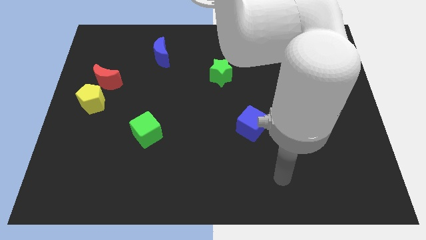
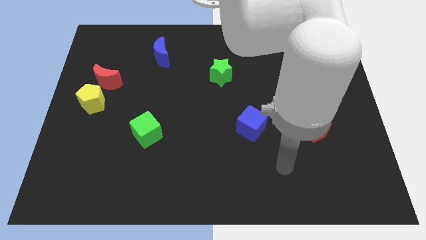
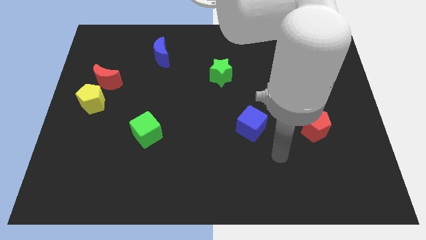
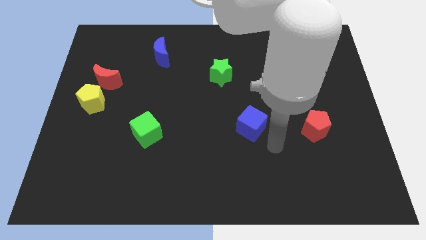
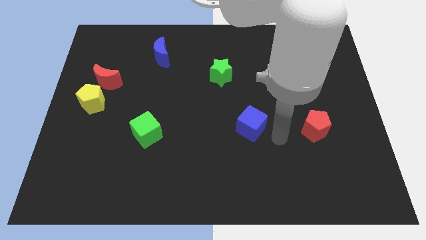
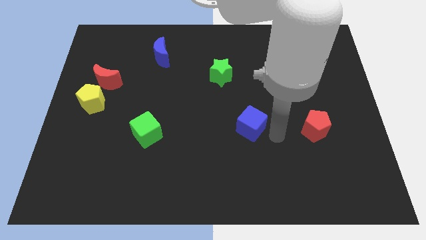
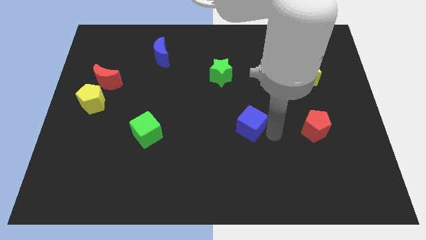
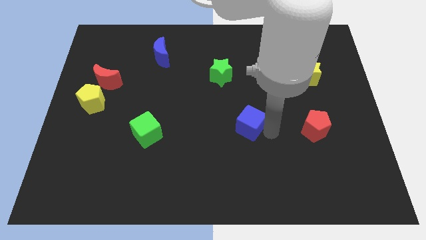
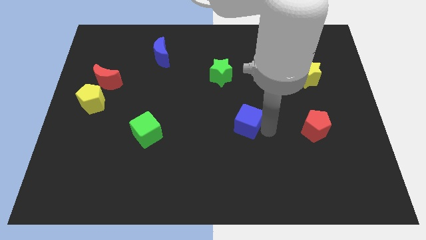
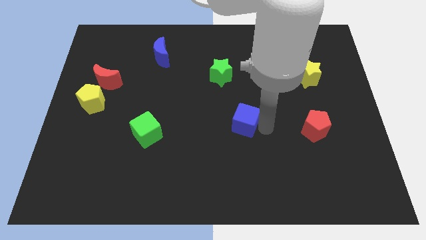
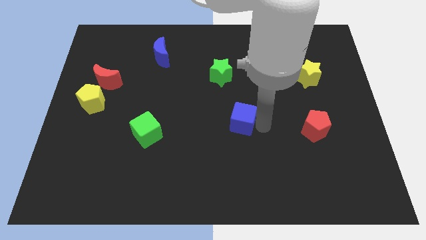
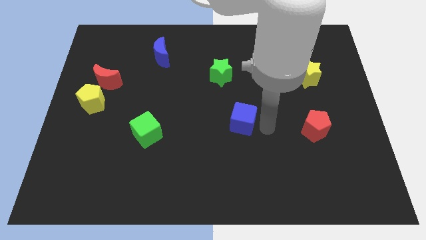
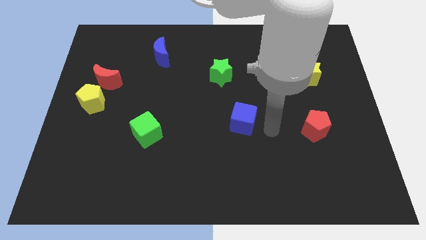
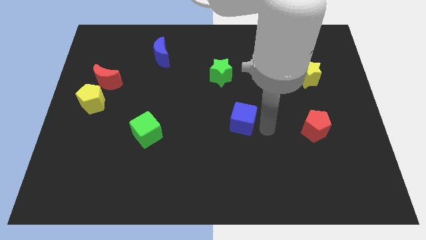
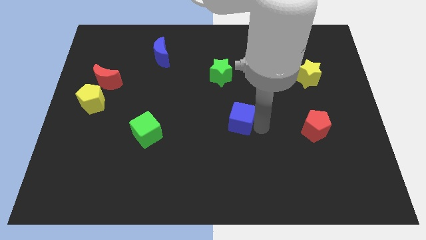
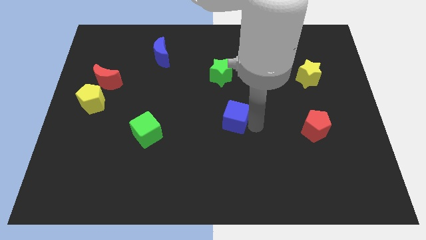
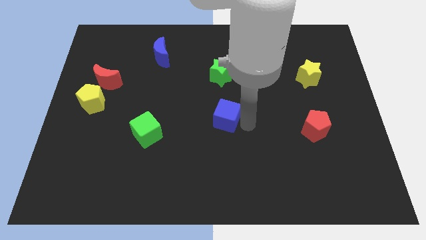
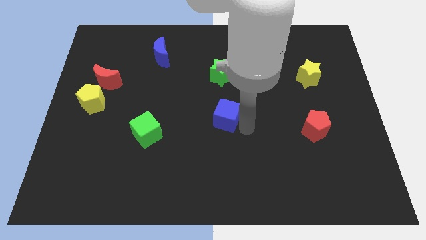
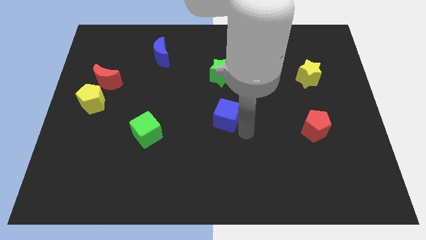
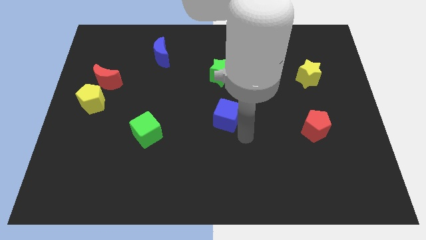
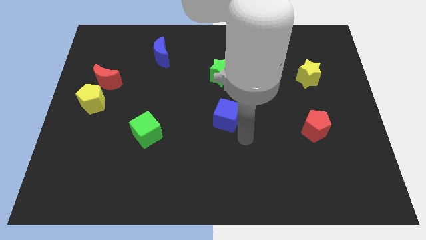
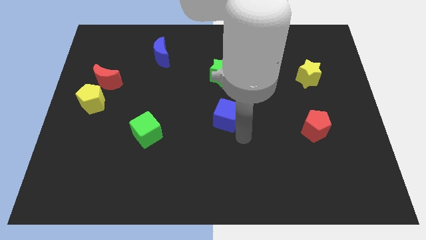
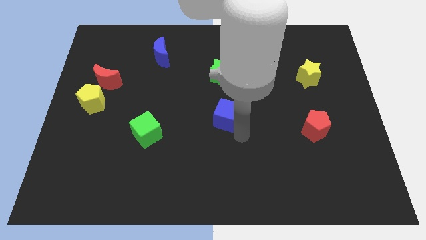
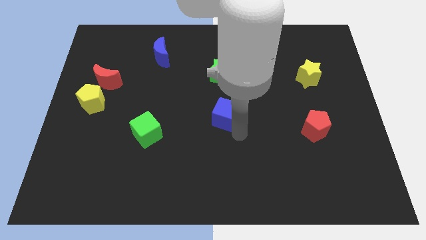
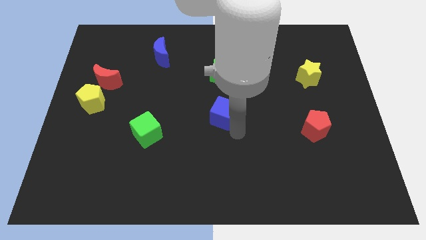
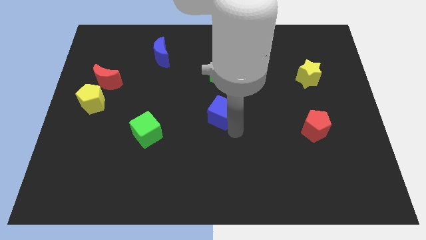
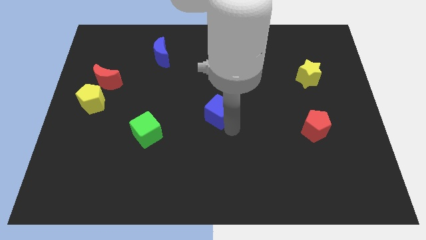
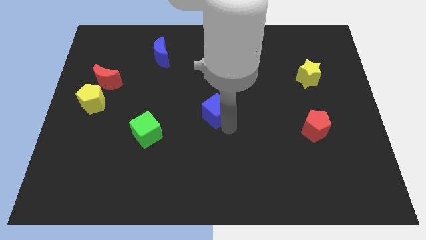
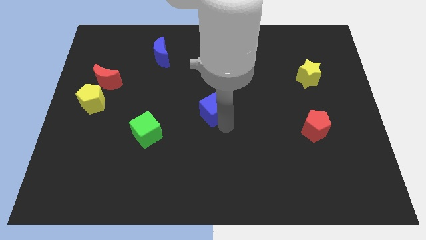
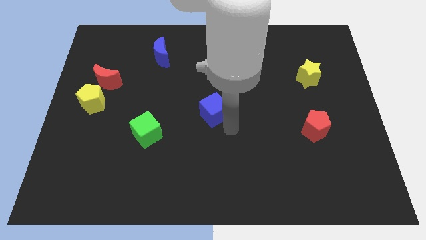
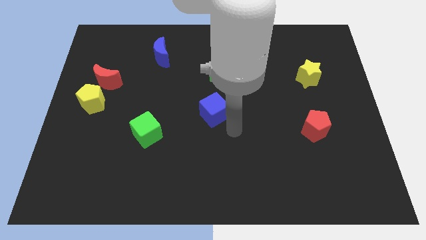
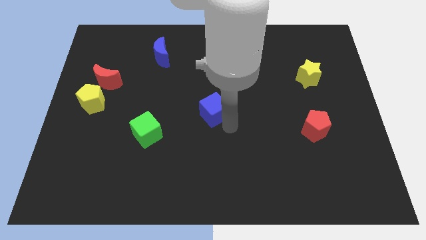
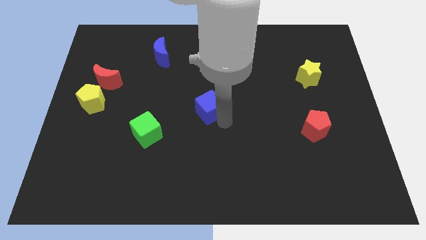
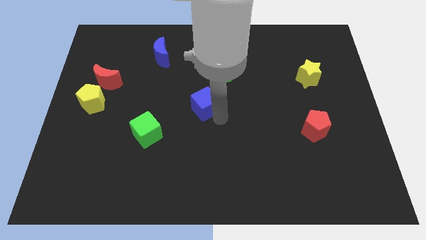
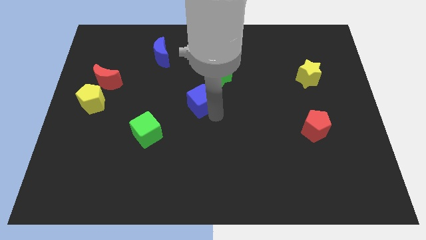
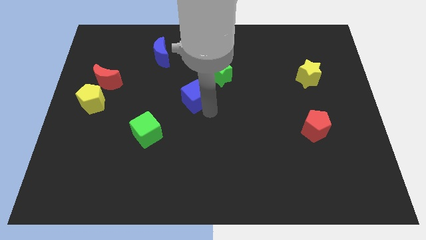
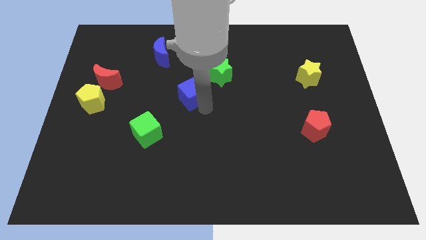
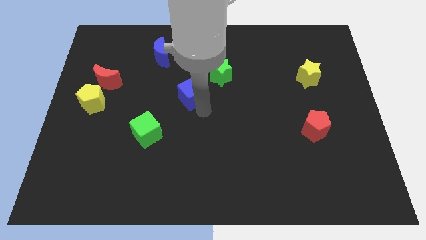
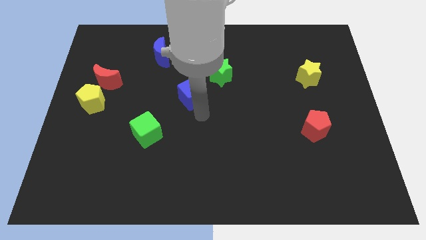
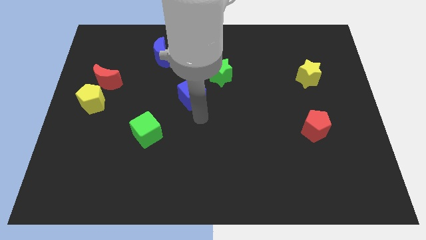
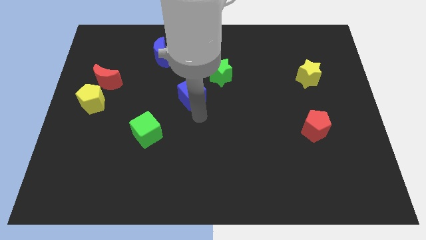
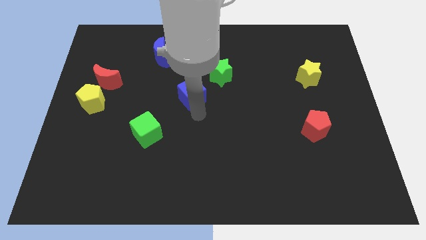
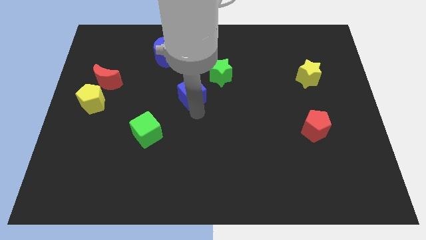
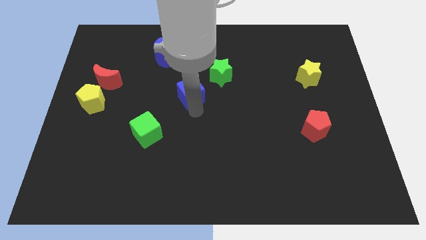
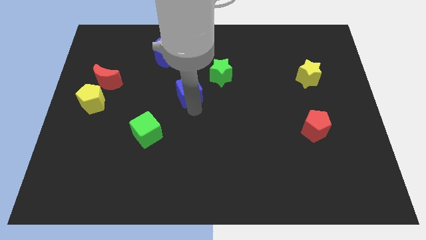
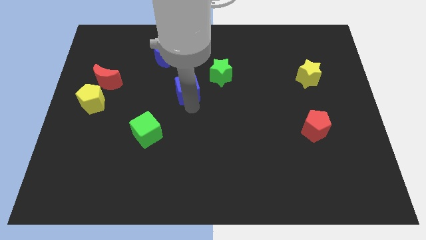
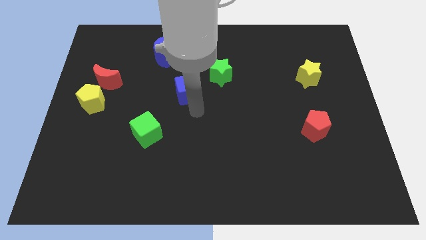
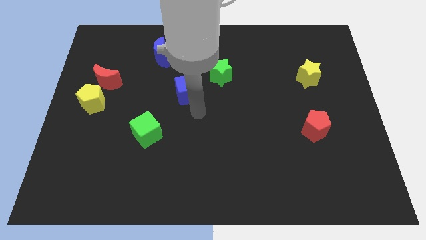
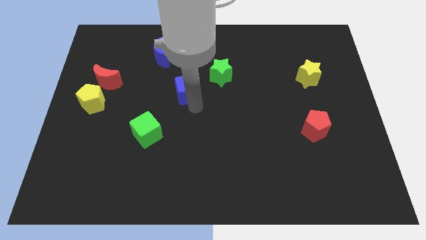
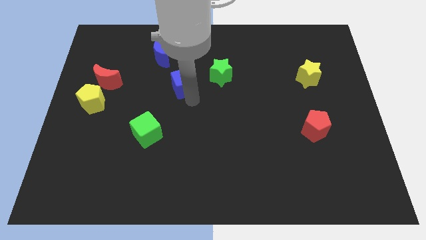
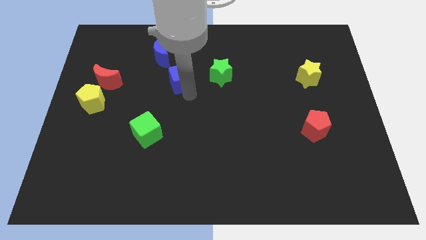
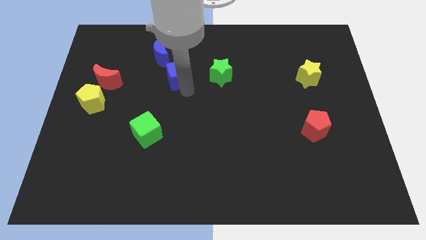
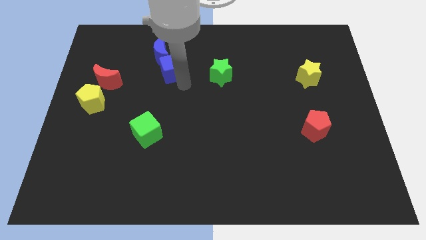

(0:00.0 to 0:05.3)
put the blue cube to the blue moon

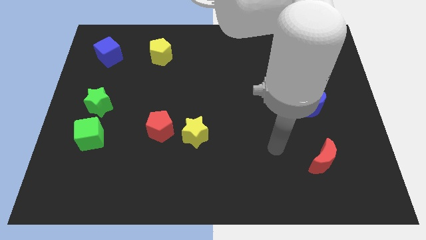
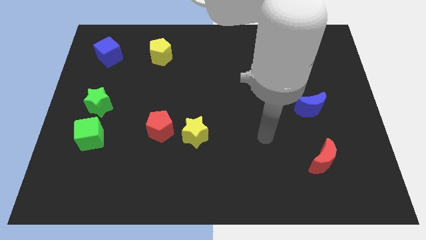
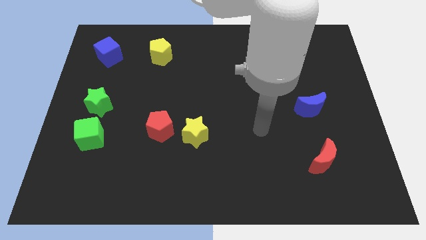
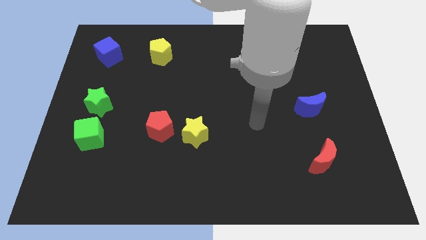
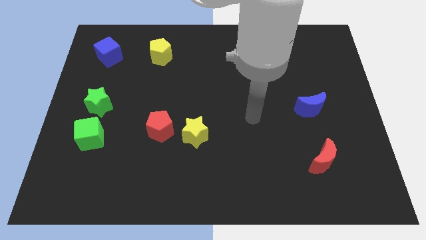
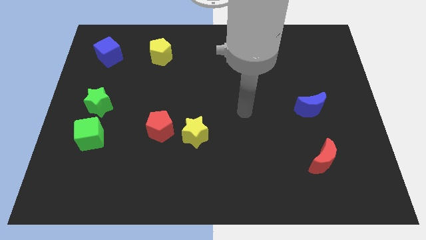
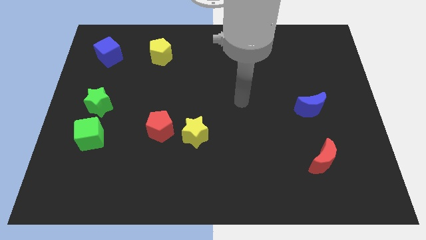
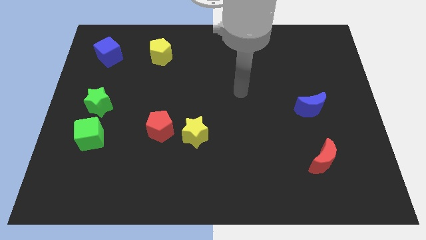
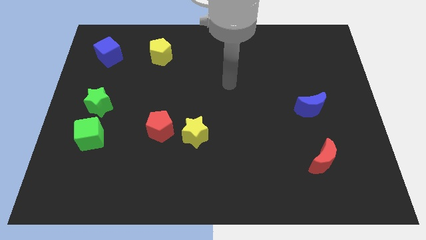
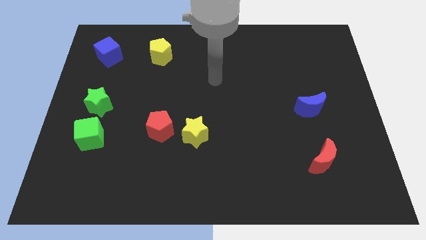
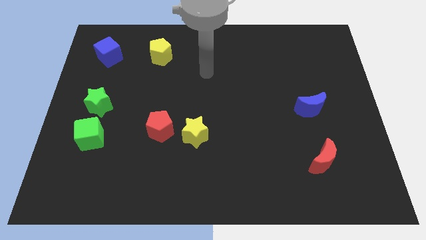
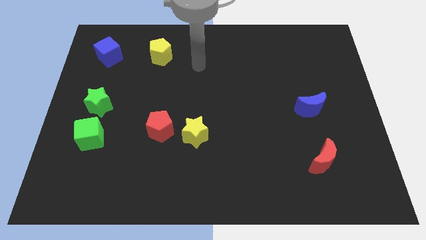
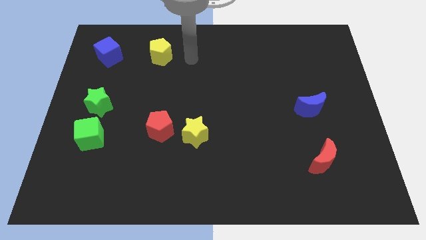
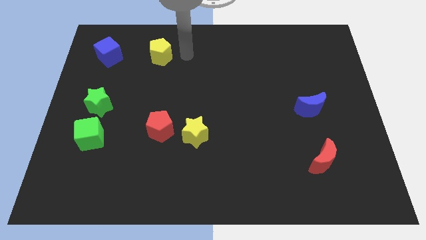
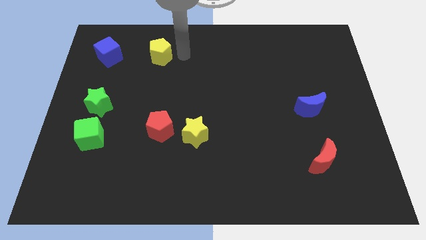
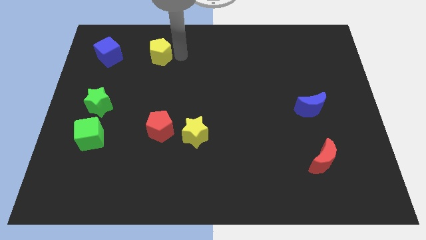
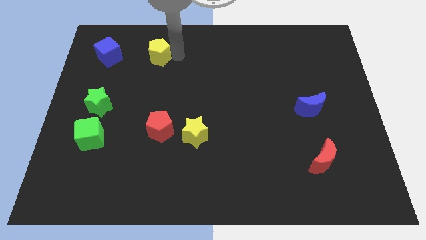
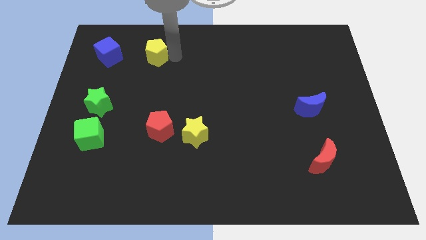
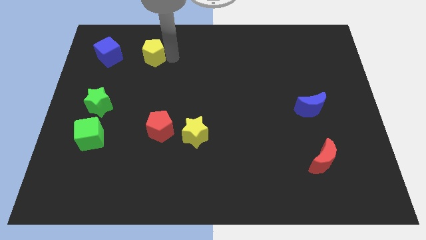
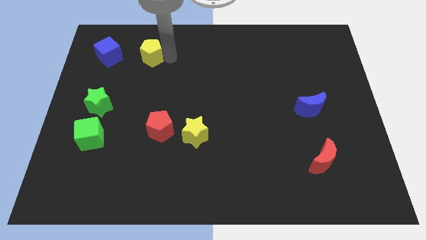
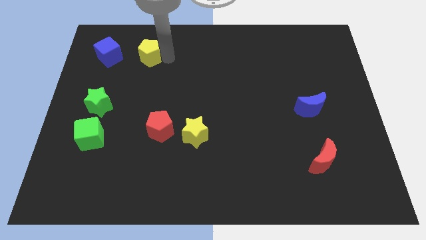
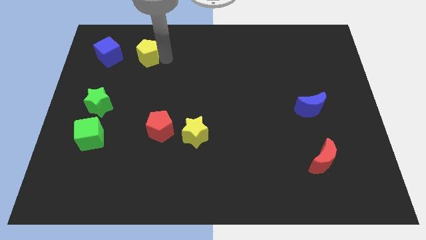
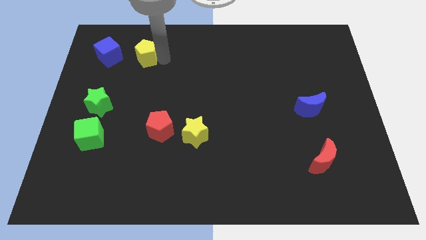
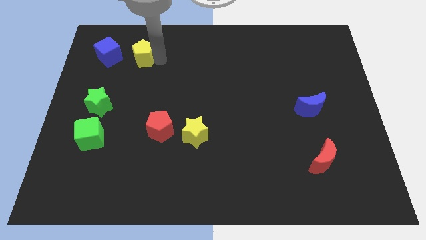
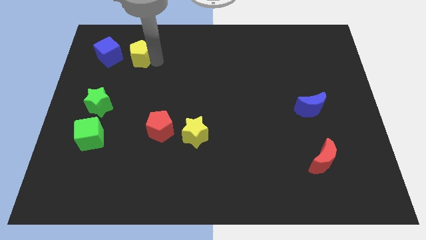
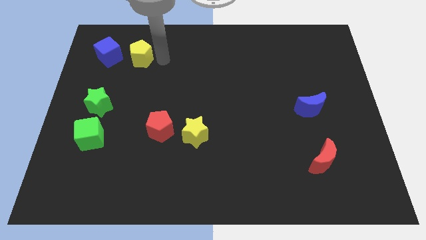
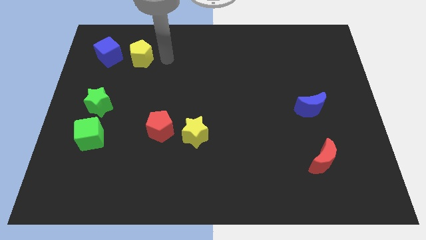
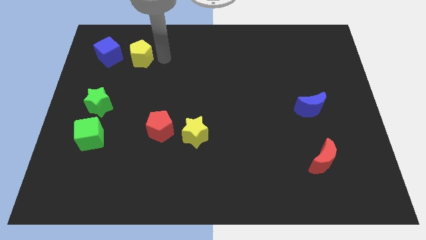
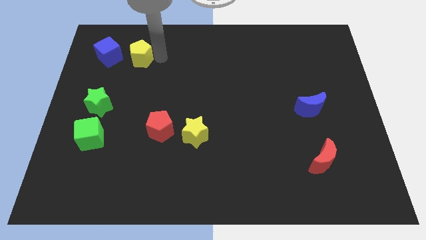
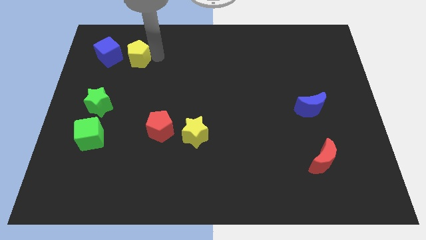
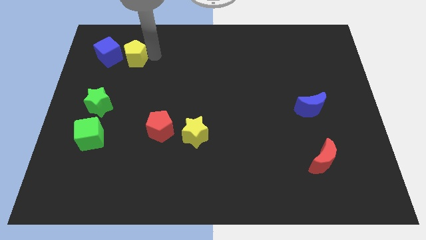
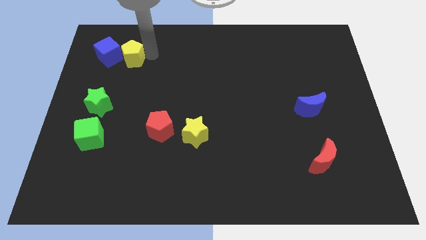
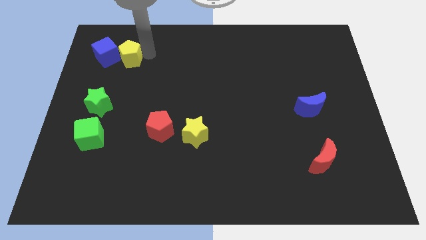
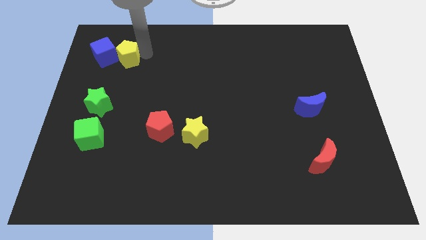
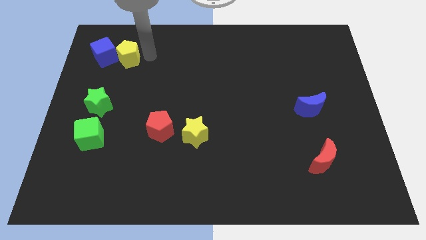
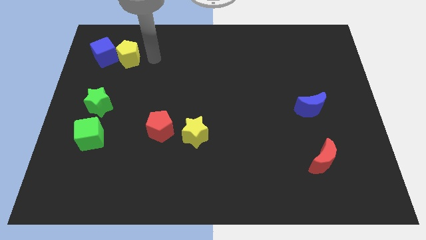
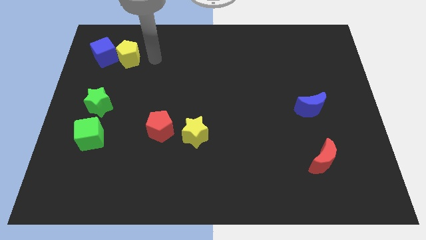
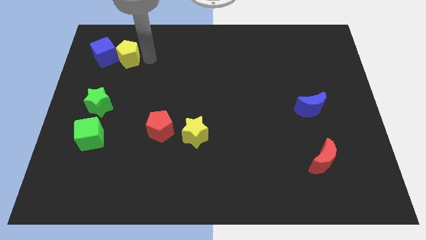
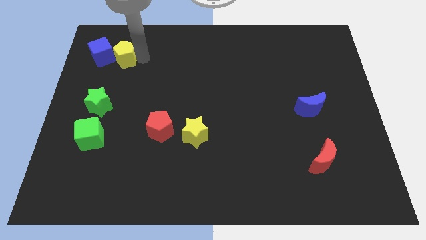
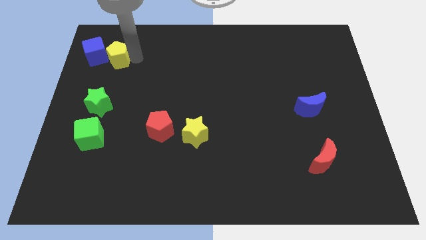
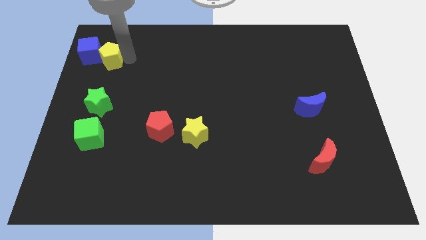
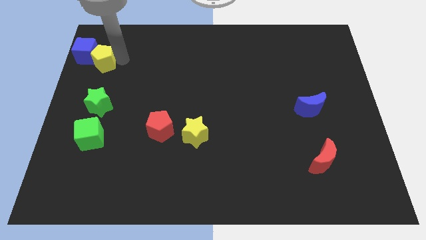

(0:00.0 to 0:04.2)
slide the yellow pentagon to the blue cube
